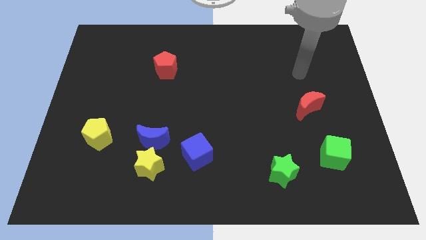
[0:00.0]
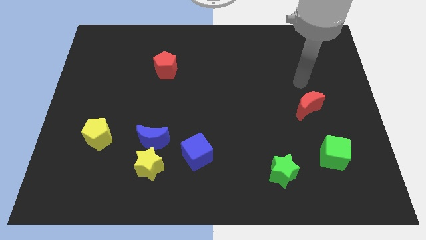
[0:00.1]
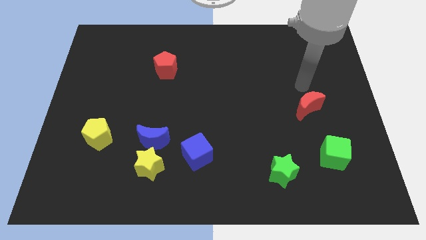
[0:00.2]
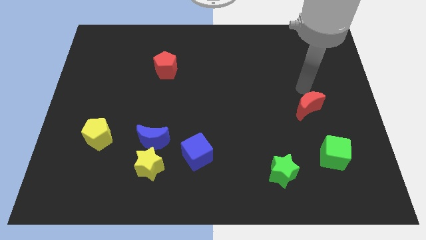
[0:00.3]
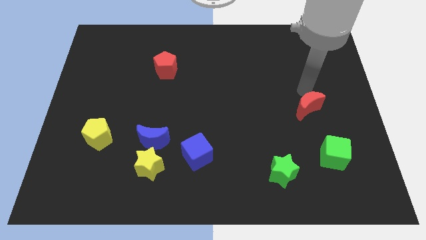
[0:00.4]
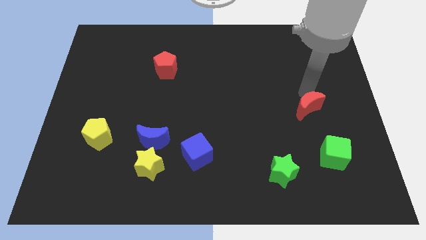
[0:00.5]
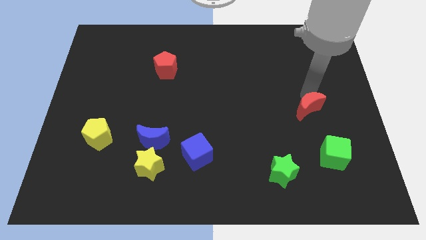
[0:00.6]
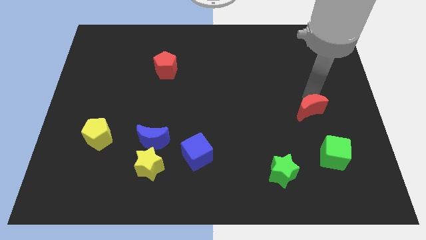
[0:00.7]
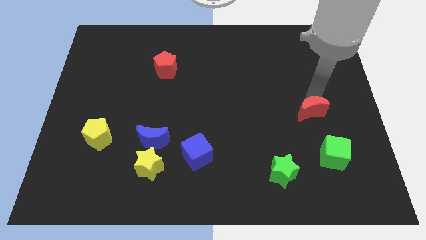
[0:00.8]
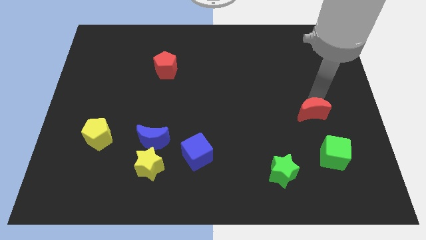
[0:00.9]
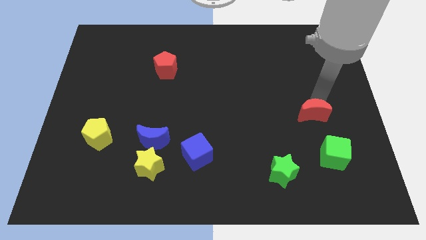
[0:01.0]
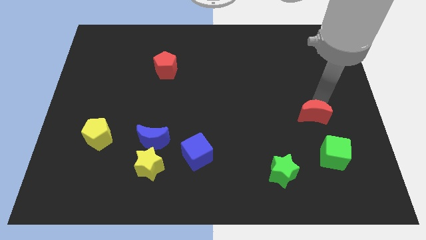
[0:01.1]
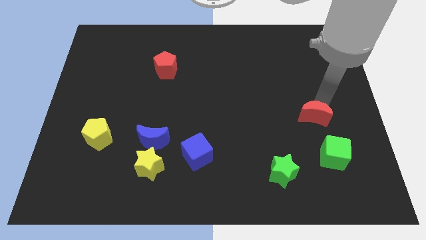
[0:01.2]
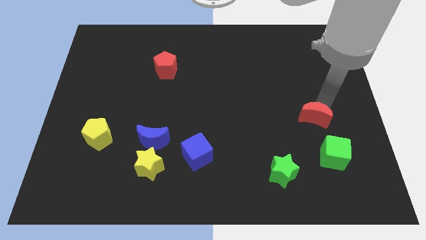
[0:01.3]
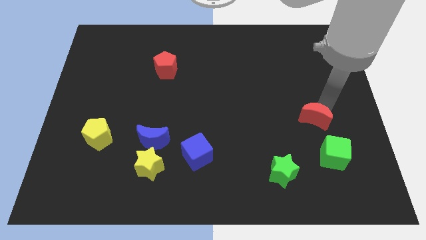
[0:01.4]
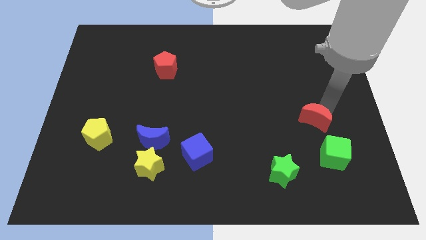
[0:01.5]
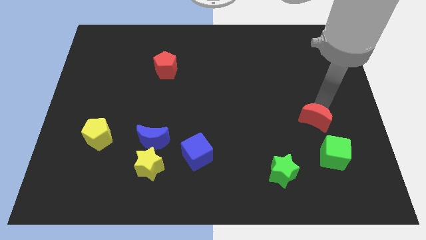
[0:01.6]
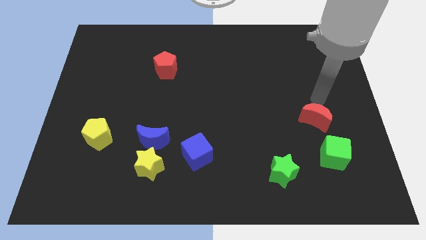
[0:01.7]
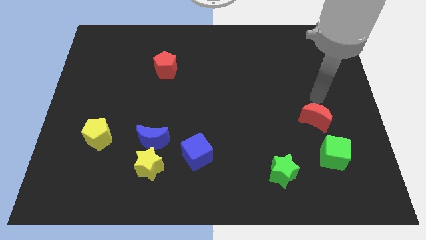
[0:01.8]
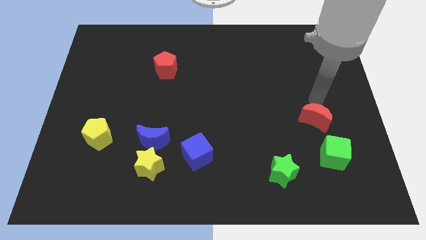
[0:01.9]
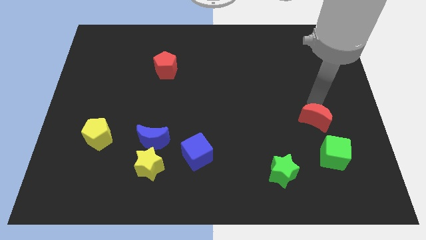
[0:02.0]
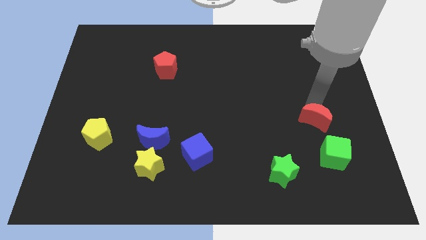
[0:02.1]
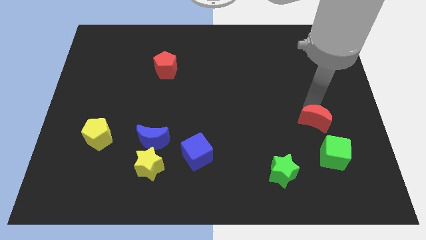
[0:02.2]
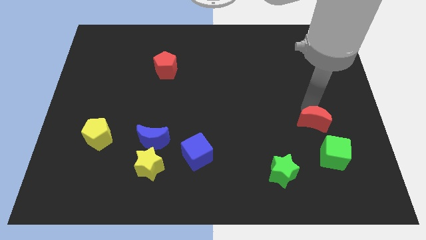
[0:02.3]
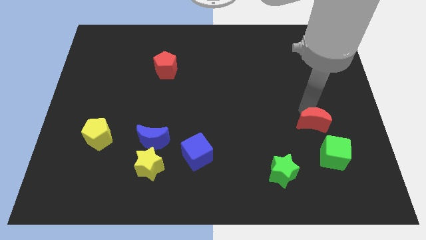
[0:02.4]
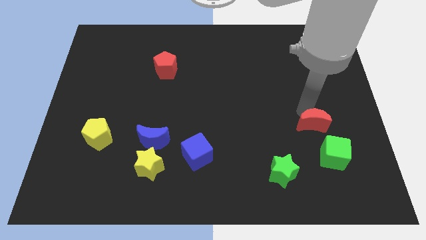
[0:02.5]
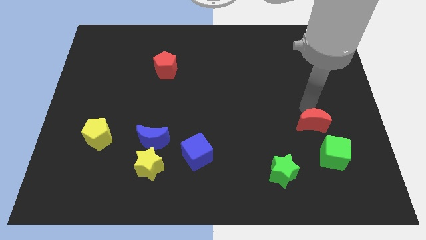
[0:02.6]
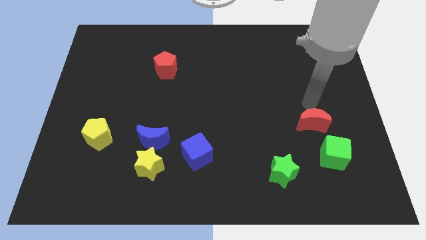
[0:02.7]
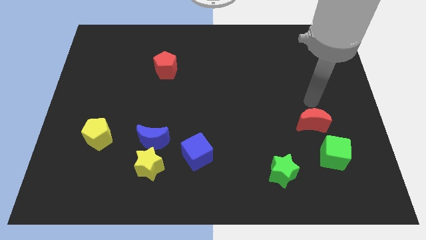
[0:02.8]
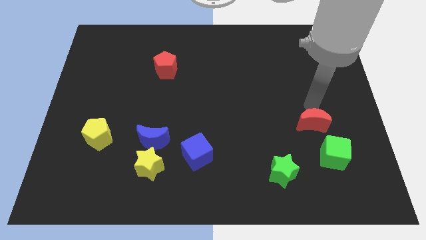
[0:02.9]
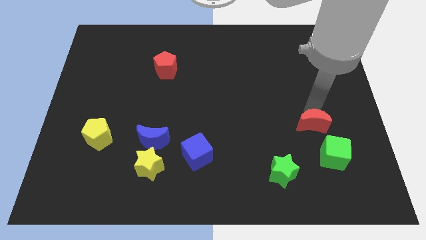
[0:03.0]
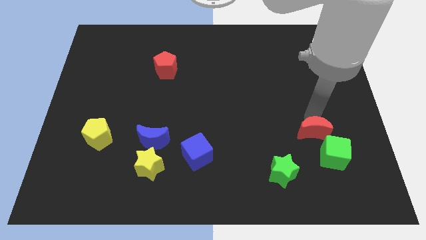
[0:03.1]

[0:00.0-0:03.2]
slide the red moon somewhat down

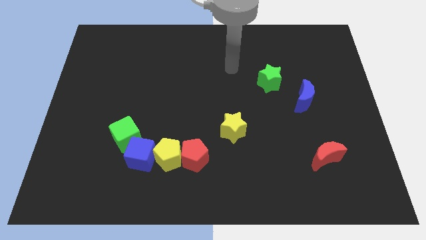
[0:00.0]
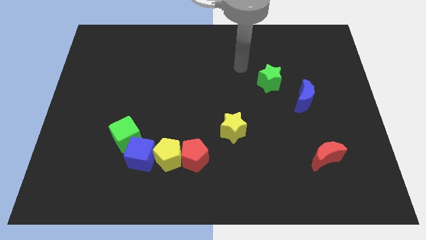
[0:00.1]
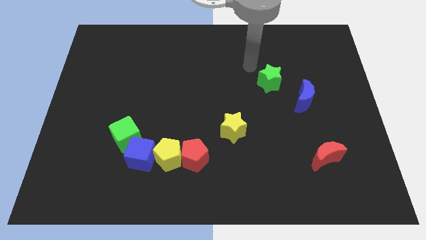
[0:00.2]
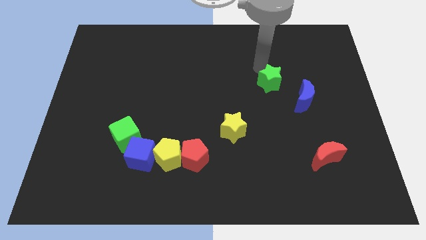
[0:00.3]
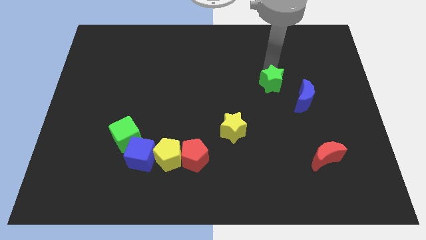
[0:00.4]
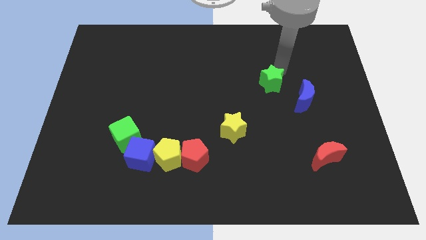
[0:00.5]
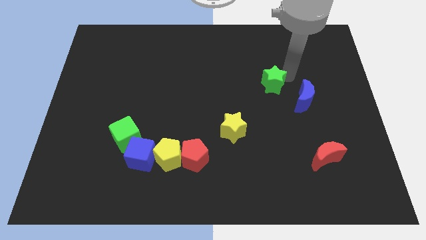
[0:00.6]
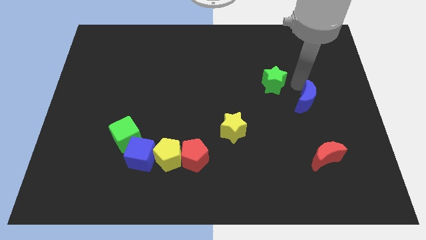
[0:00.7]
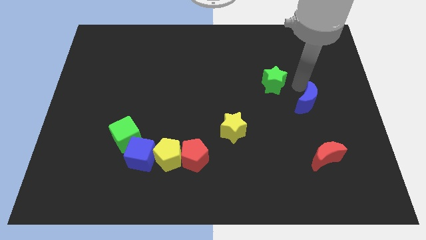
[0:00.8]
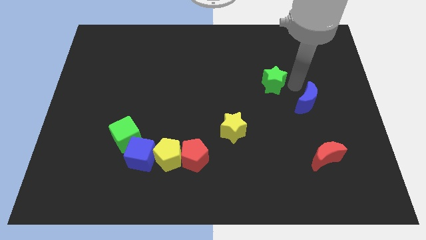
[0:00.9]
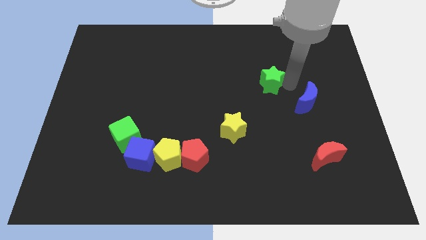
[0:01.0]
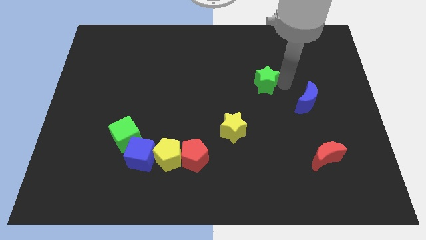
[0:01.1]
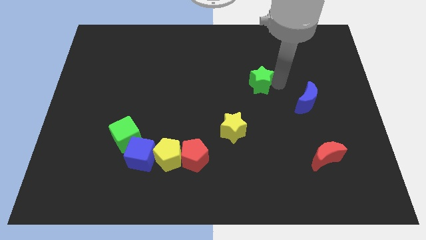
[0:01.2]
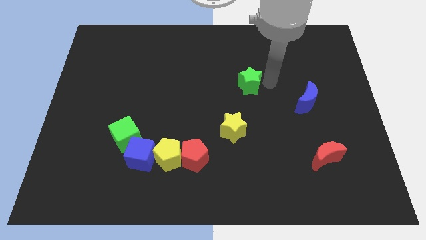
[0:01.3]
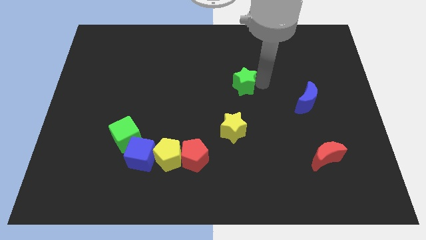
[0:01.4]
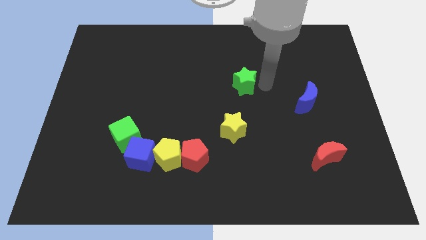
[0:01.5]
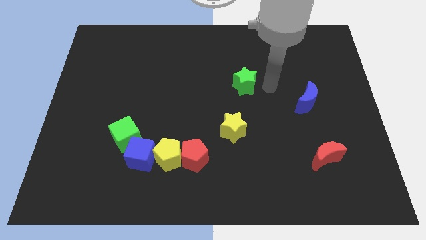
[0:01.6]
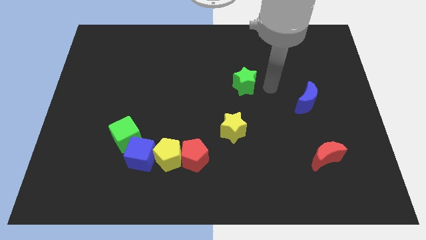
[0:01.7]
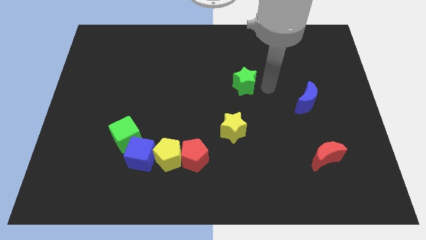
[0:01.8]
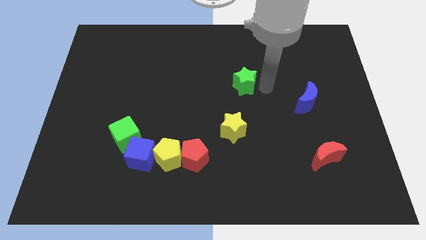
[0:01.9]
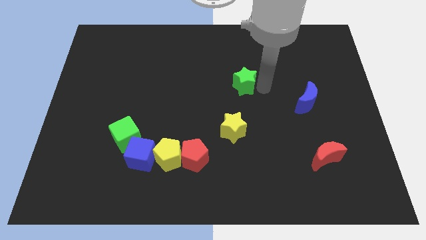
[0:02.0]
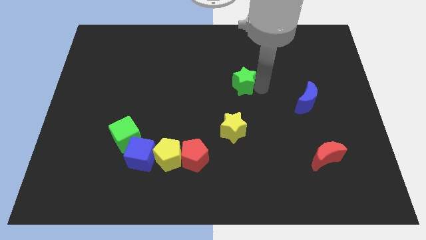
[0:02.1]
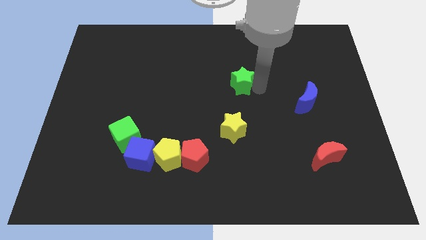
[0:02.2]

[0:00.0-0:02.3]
move the green star a little to the left

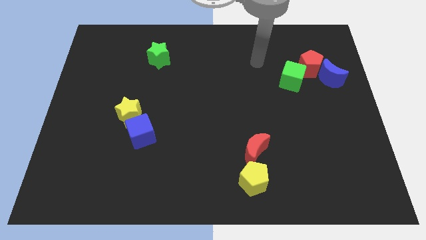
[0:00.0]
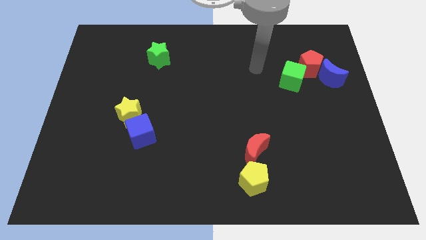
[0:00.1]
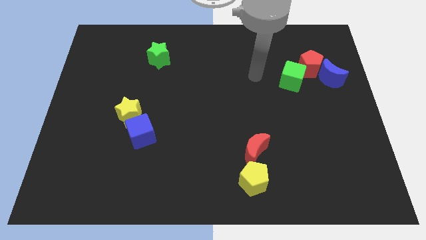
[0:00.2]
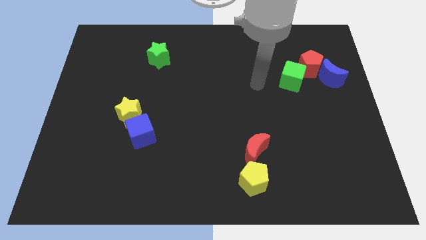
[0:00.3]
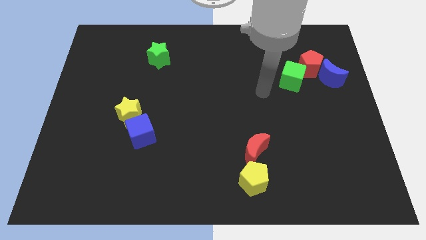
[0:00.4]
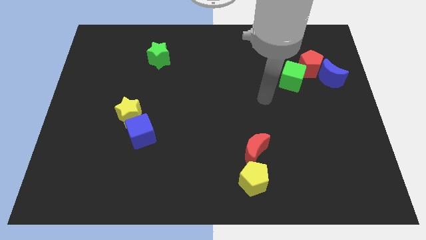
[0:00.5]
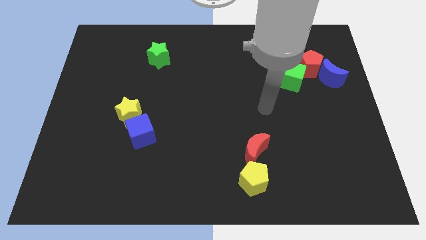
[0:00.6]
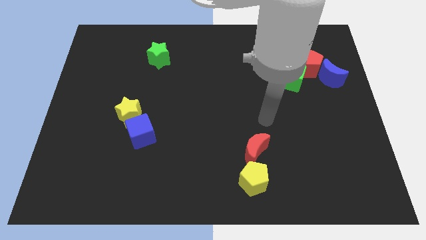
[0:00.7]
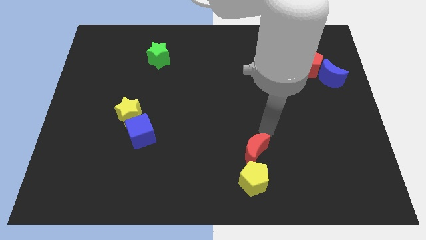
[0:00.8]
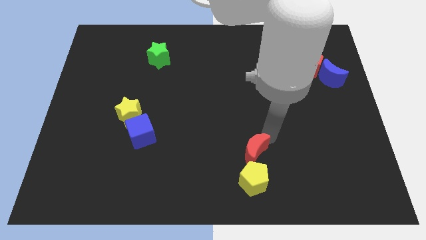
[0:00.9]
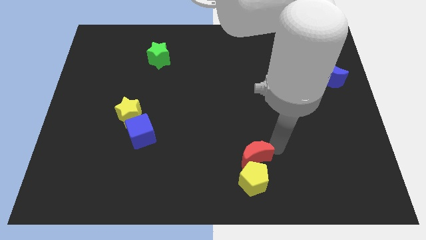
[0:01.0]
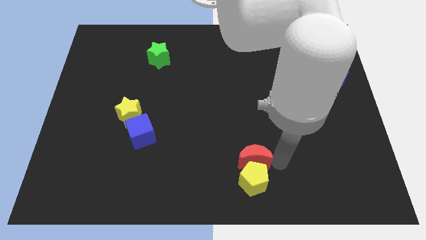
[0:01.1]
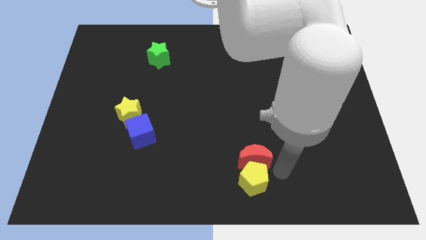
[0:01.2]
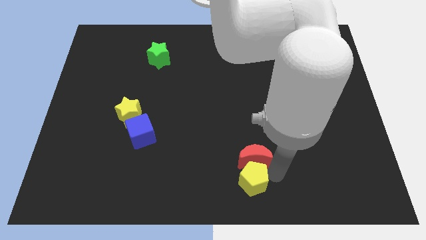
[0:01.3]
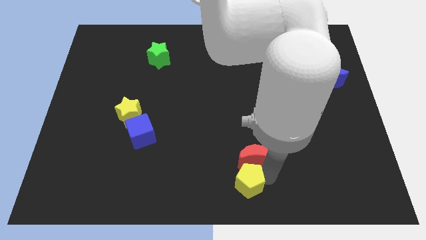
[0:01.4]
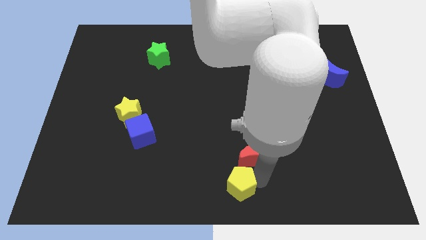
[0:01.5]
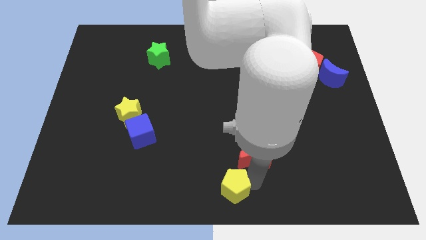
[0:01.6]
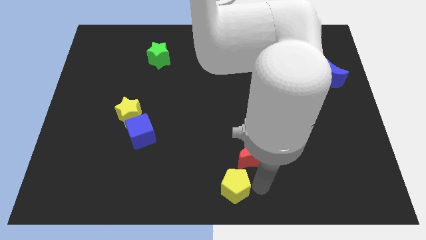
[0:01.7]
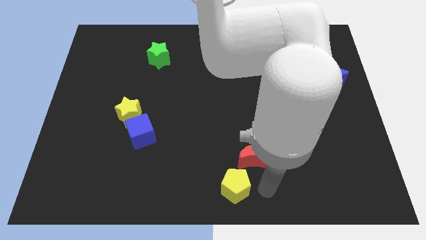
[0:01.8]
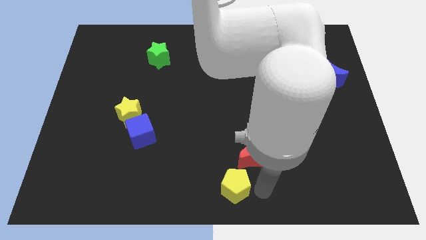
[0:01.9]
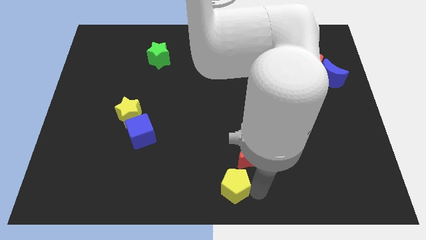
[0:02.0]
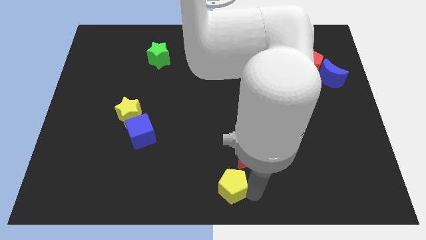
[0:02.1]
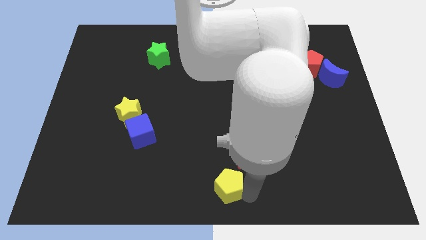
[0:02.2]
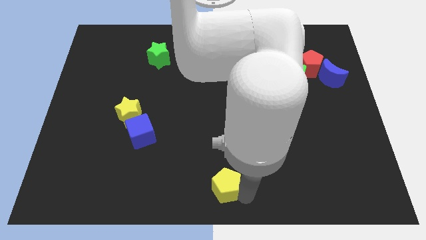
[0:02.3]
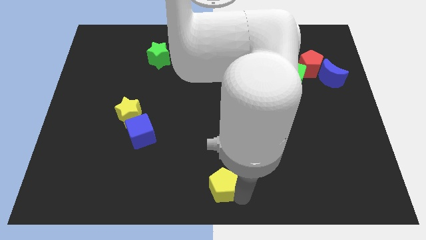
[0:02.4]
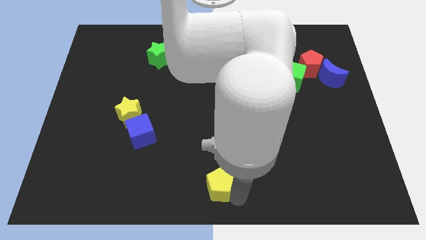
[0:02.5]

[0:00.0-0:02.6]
slightly slide the yellow pentagon to the left
